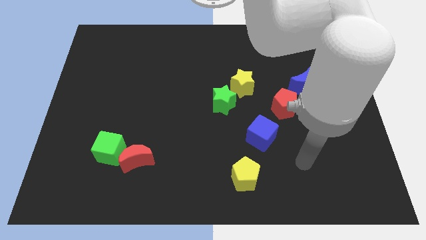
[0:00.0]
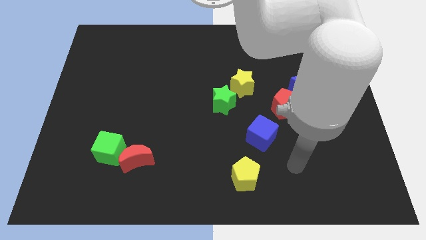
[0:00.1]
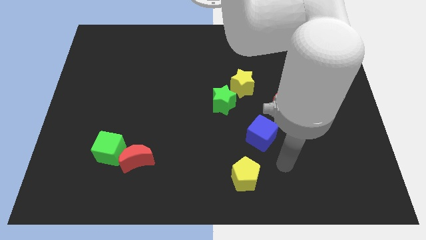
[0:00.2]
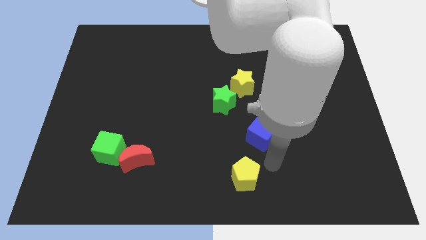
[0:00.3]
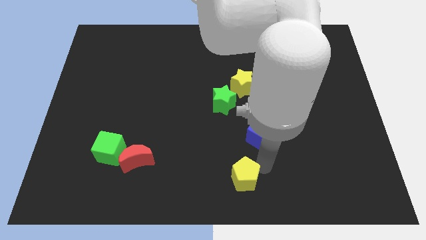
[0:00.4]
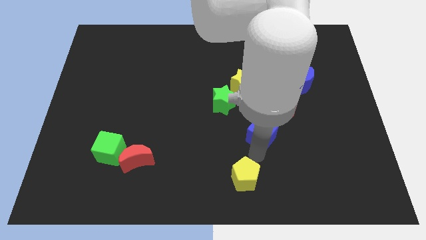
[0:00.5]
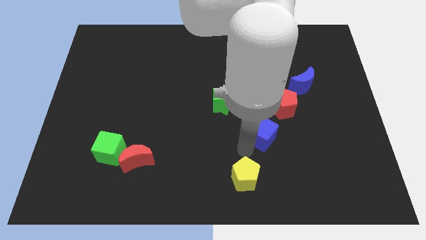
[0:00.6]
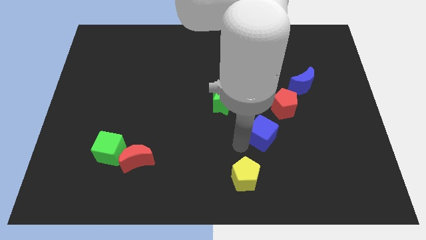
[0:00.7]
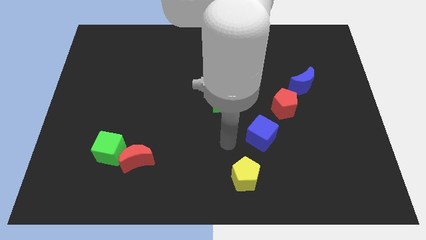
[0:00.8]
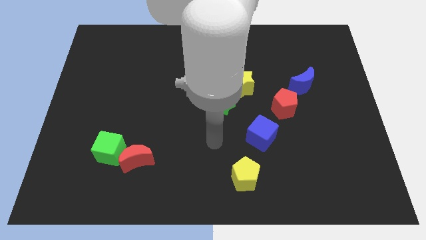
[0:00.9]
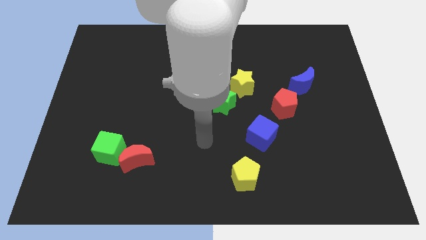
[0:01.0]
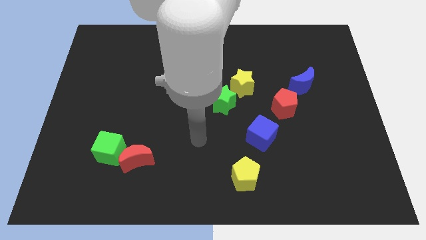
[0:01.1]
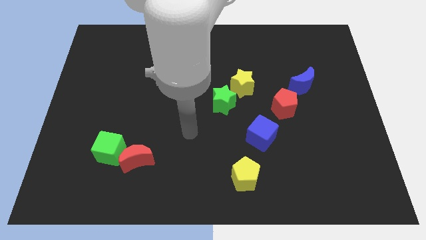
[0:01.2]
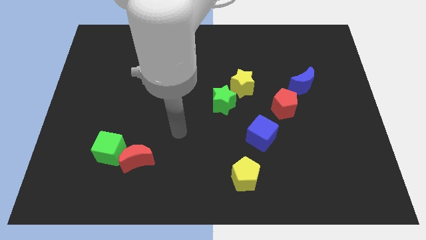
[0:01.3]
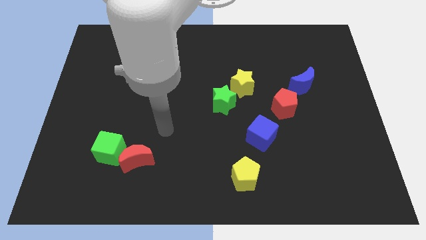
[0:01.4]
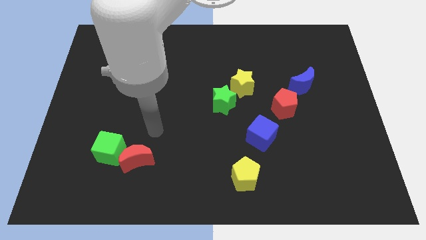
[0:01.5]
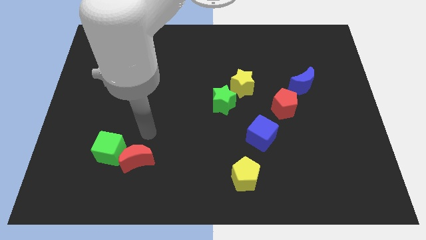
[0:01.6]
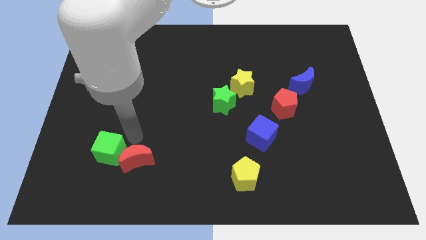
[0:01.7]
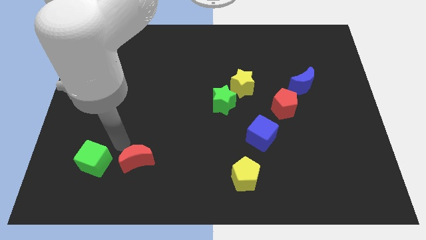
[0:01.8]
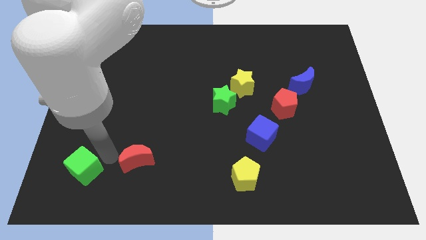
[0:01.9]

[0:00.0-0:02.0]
move the red moon away from the green cube

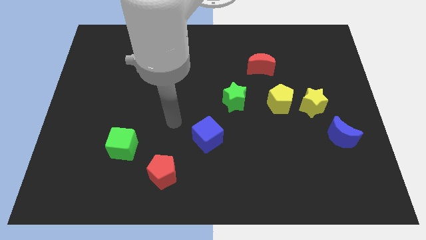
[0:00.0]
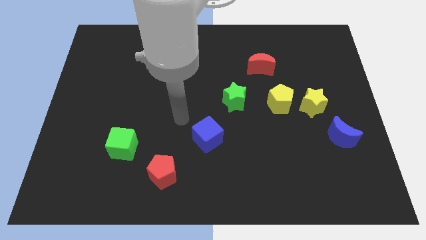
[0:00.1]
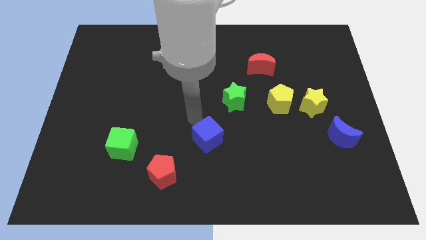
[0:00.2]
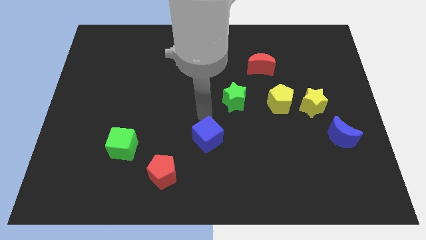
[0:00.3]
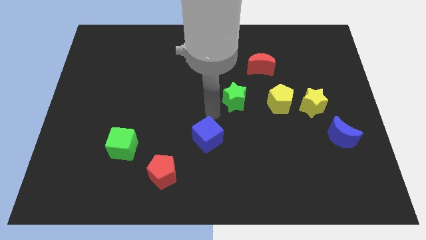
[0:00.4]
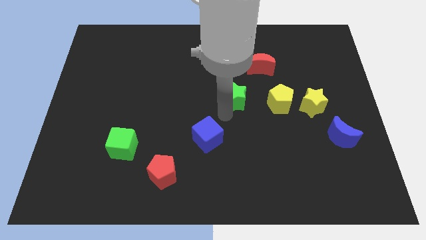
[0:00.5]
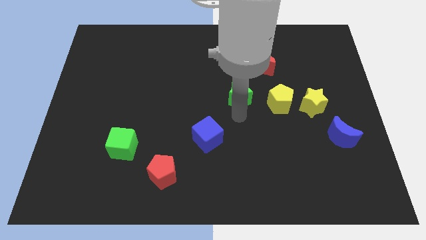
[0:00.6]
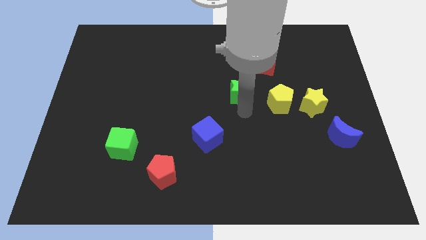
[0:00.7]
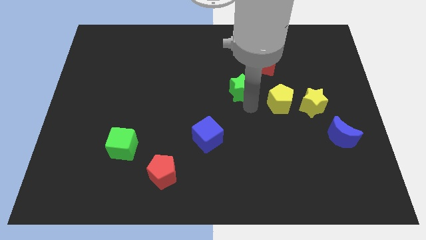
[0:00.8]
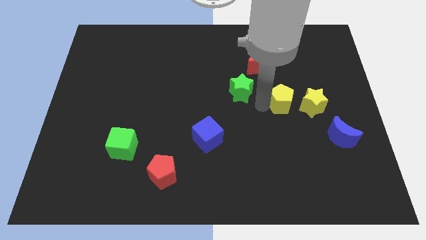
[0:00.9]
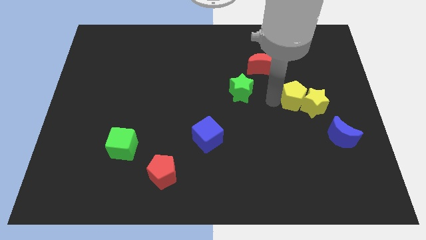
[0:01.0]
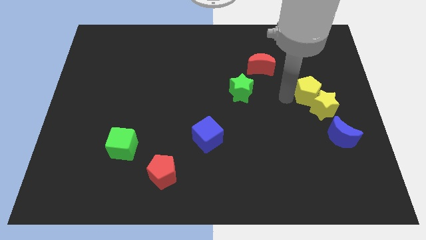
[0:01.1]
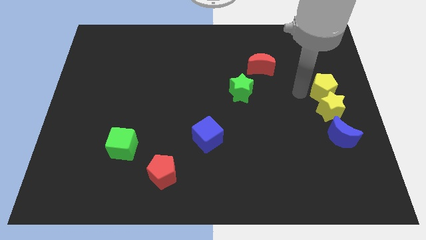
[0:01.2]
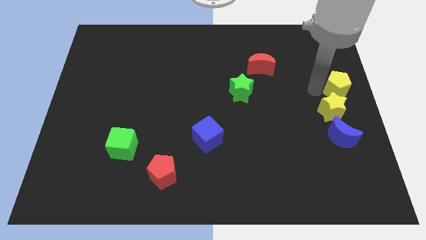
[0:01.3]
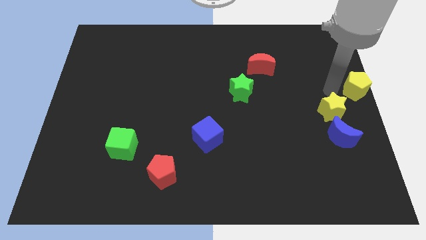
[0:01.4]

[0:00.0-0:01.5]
pull the yellow star apart from the yellow pentagon

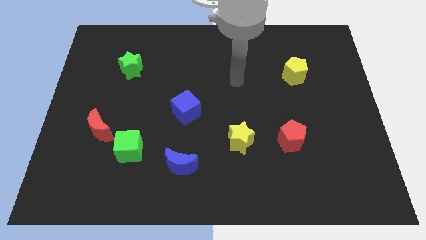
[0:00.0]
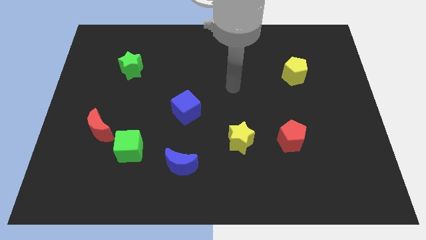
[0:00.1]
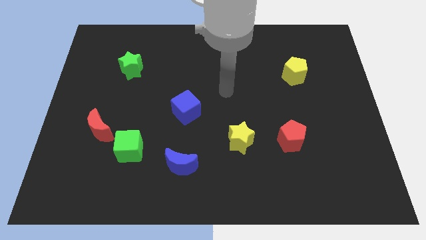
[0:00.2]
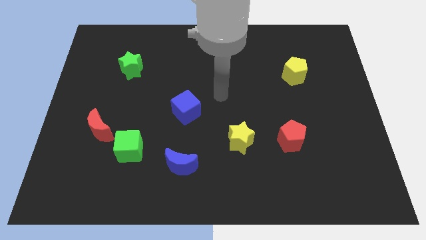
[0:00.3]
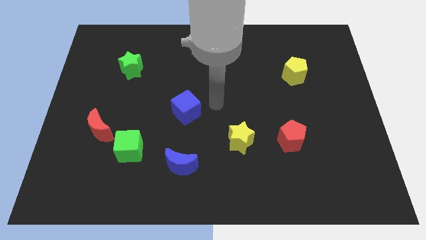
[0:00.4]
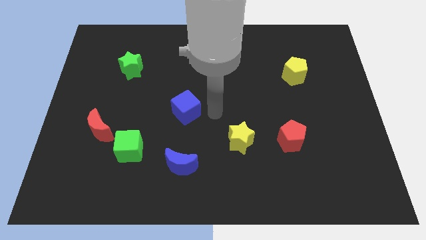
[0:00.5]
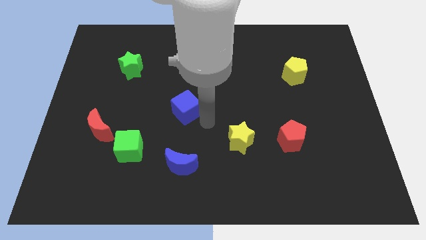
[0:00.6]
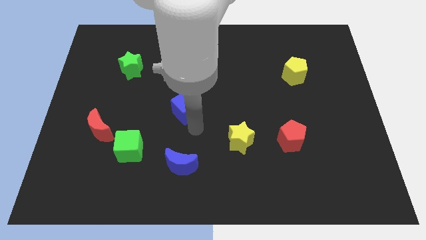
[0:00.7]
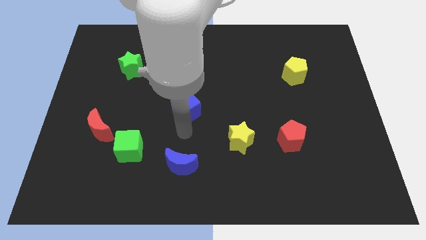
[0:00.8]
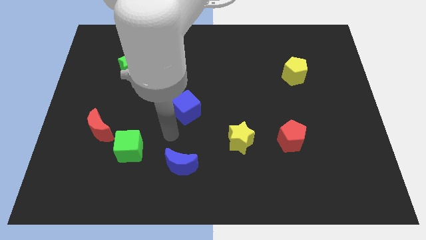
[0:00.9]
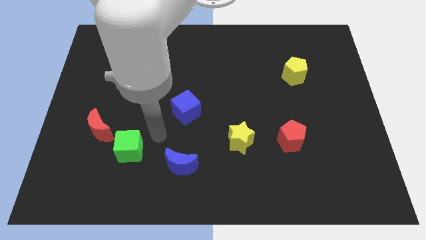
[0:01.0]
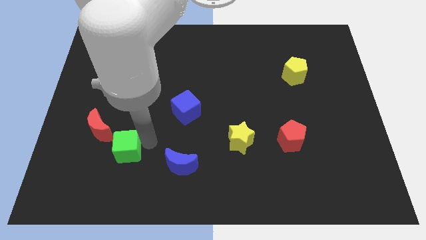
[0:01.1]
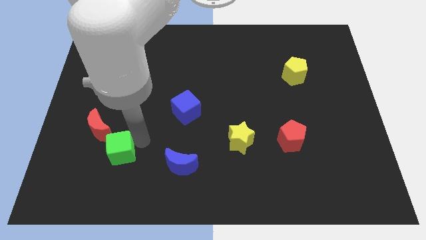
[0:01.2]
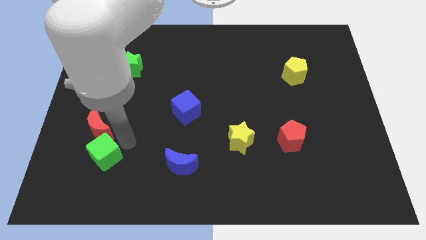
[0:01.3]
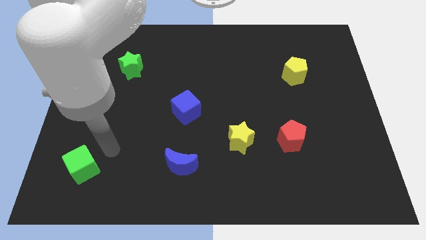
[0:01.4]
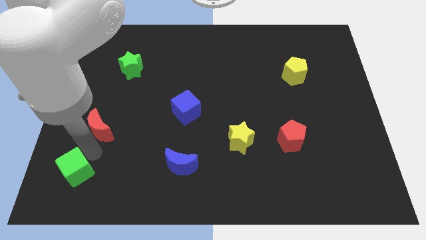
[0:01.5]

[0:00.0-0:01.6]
separate the red moon from the green cube

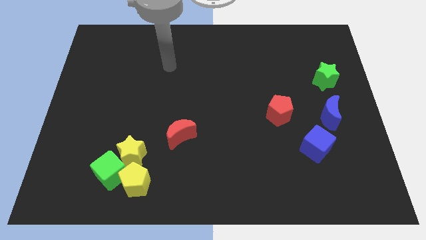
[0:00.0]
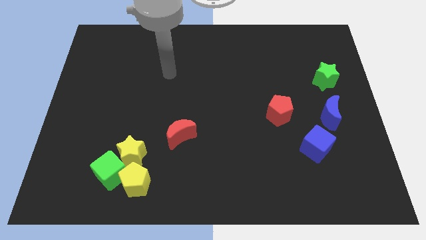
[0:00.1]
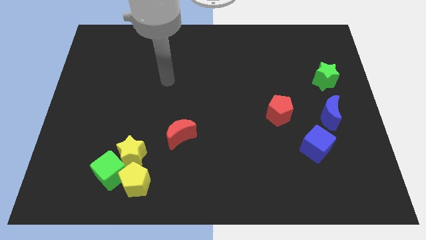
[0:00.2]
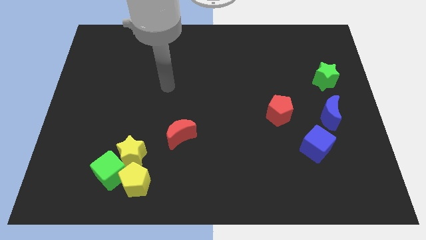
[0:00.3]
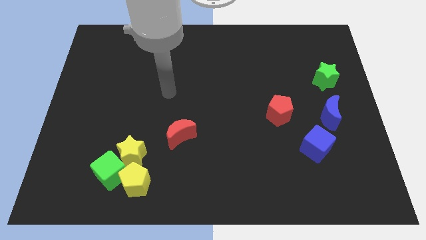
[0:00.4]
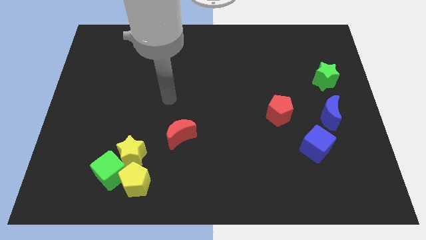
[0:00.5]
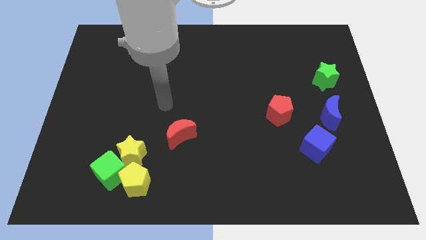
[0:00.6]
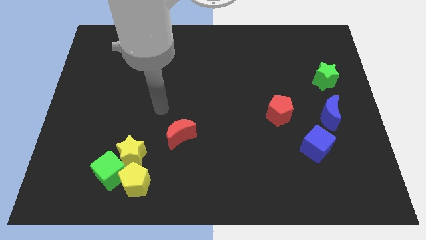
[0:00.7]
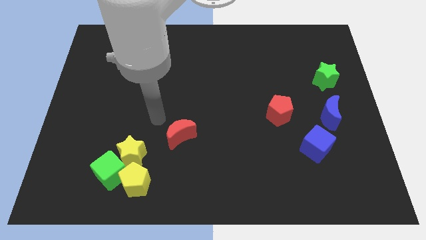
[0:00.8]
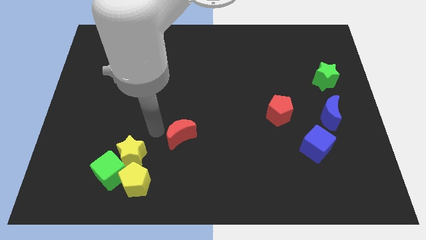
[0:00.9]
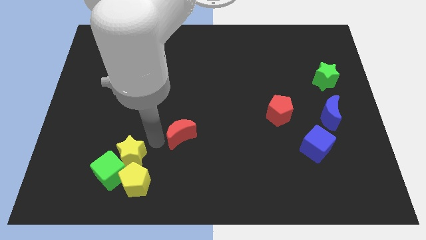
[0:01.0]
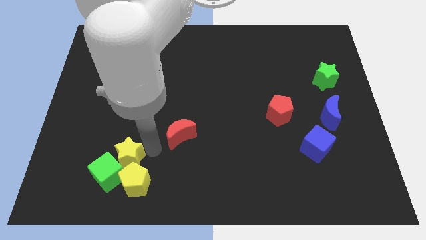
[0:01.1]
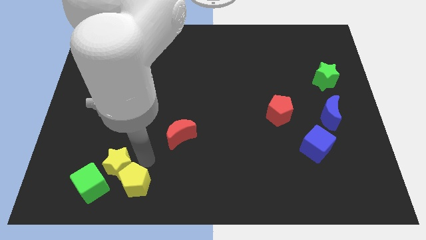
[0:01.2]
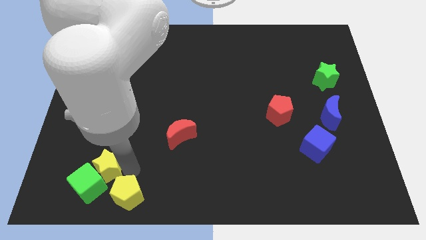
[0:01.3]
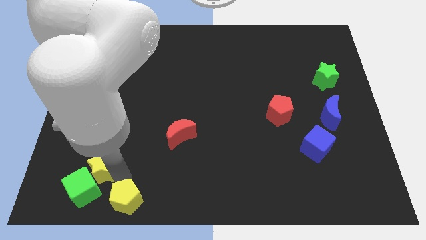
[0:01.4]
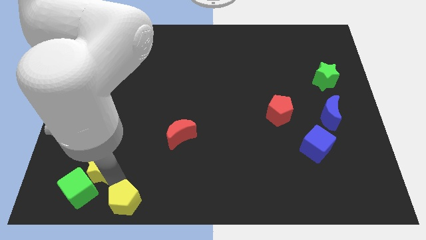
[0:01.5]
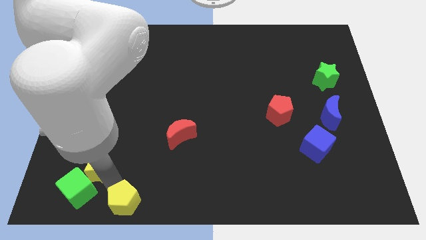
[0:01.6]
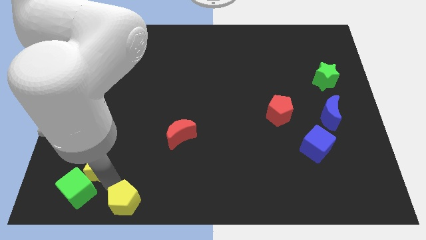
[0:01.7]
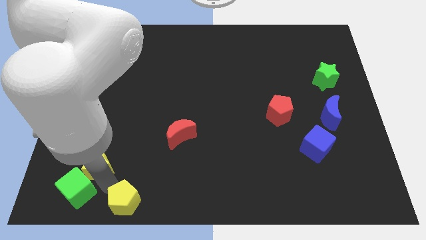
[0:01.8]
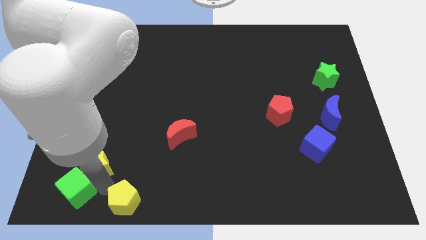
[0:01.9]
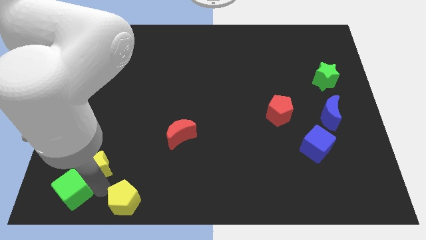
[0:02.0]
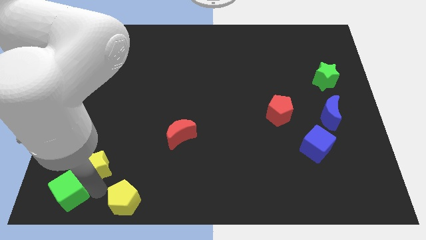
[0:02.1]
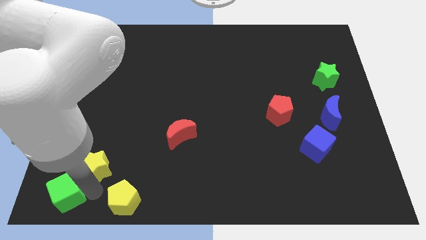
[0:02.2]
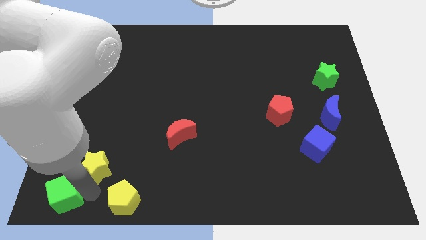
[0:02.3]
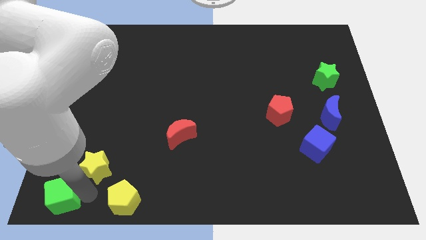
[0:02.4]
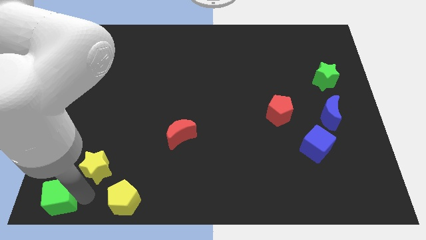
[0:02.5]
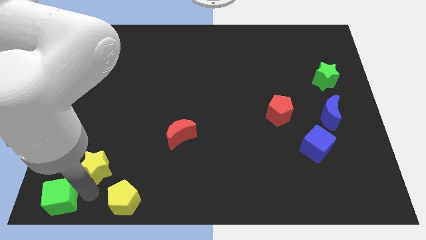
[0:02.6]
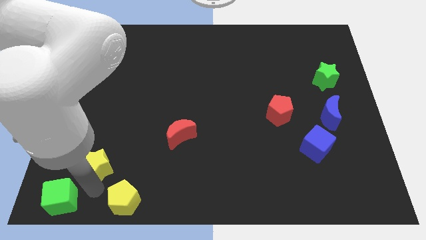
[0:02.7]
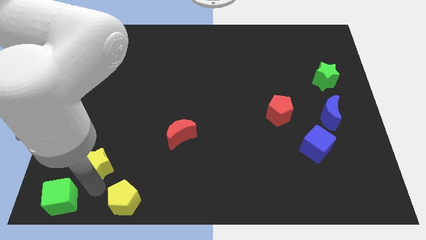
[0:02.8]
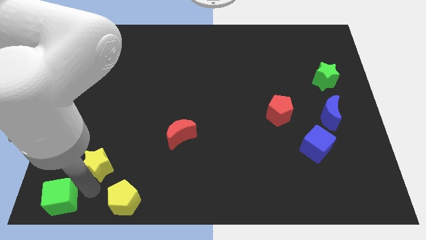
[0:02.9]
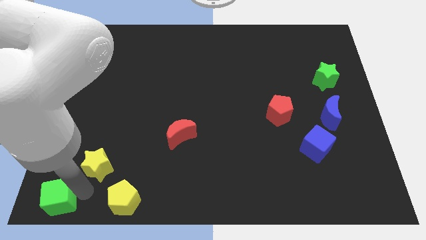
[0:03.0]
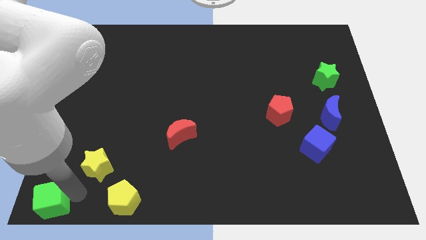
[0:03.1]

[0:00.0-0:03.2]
separate the green cube from the yellow star and yellow pentagon

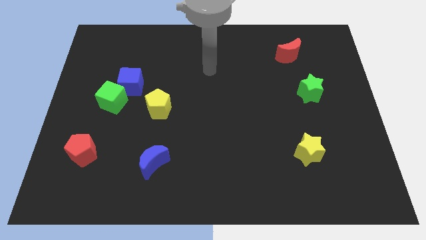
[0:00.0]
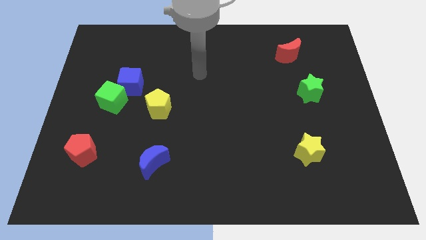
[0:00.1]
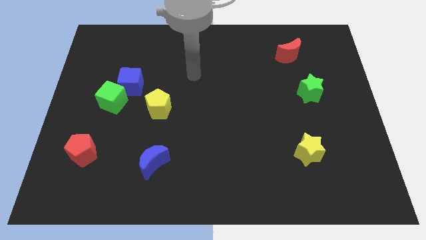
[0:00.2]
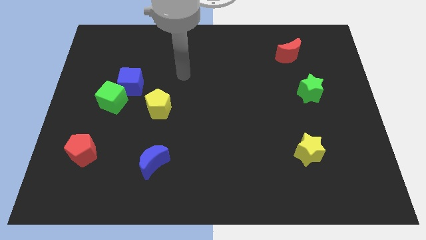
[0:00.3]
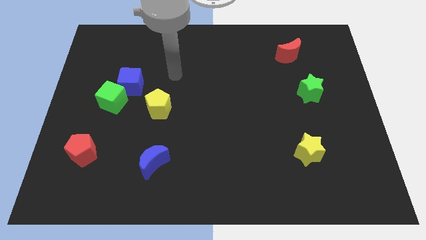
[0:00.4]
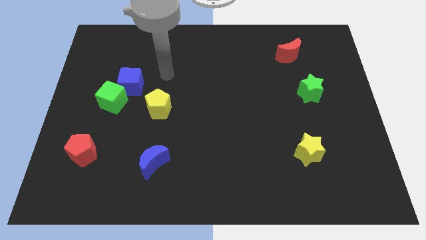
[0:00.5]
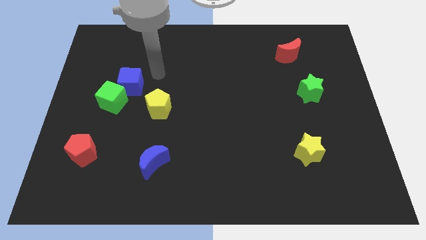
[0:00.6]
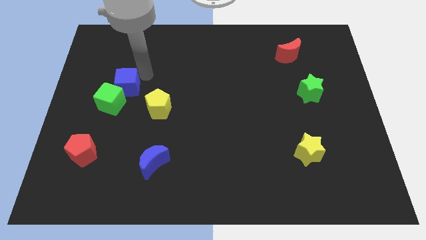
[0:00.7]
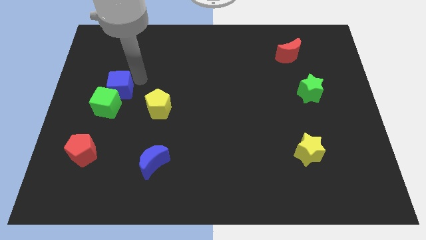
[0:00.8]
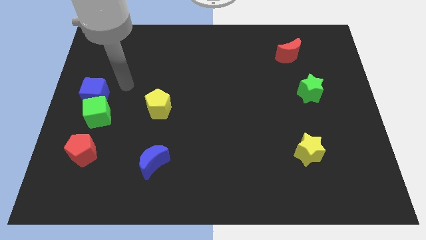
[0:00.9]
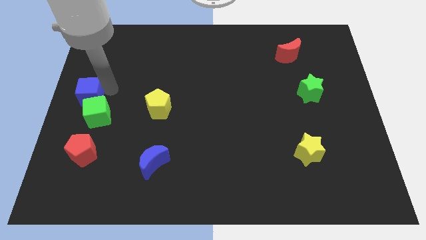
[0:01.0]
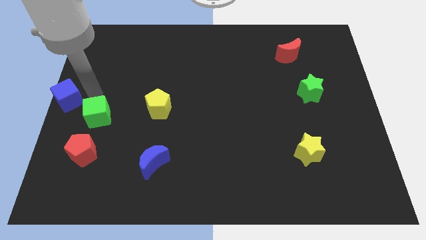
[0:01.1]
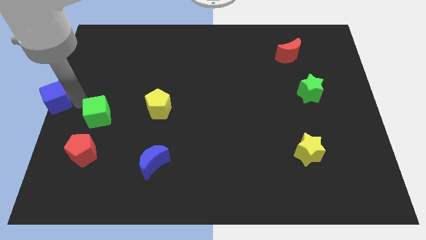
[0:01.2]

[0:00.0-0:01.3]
pull the green cube apart from the blue cube
